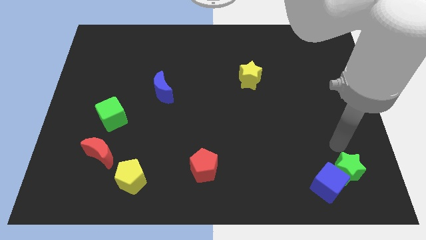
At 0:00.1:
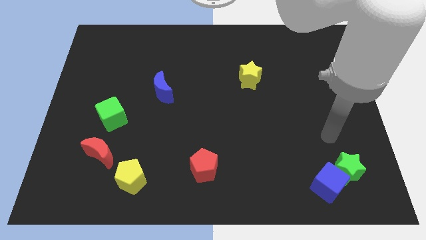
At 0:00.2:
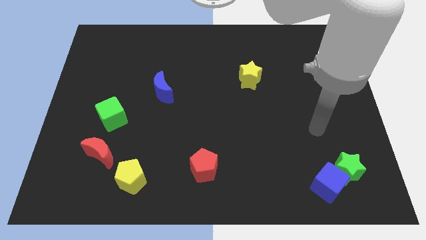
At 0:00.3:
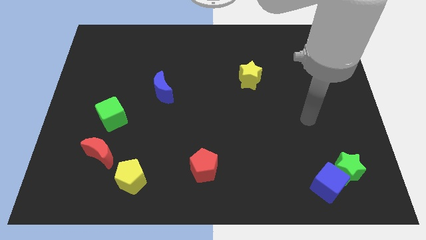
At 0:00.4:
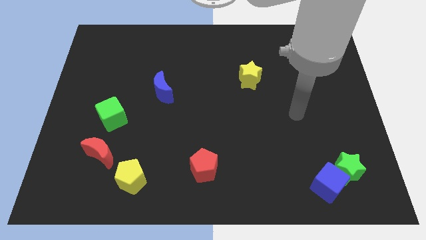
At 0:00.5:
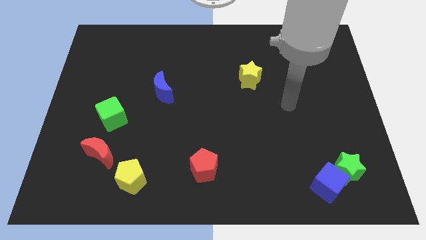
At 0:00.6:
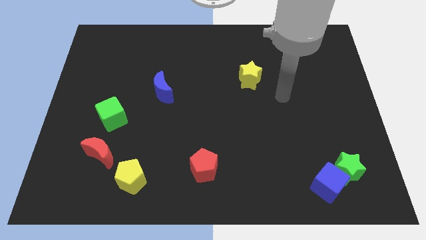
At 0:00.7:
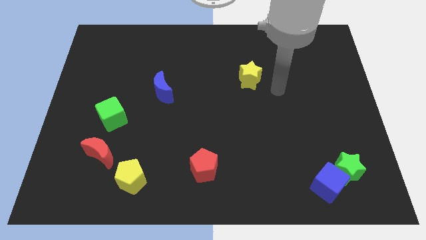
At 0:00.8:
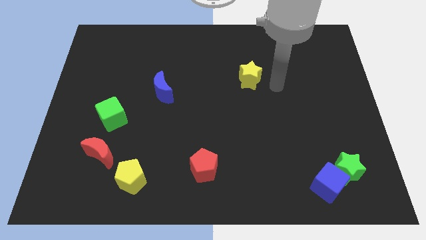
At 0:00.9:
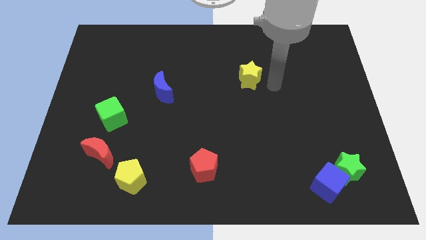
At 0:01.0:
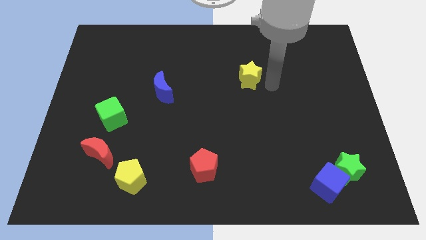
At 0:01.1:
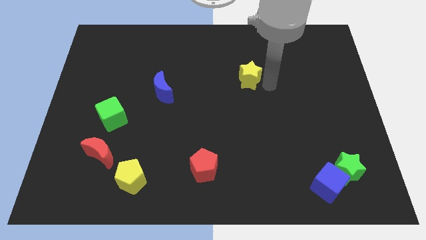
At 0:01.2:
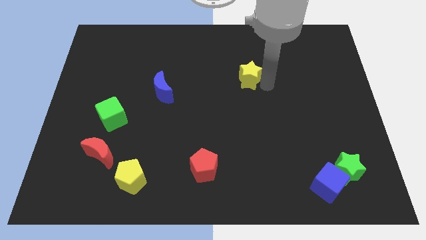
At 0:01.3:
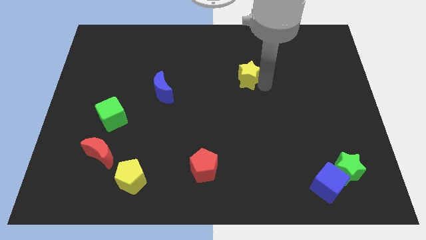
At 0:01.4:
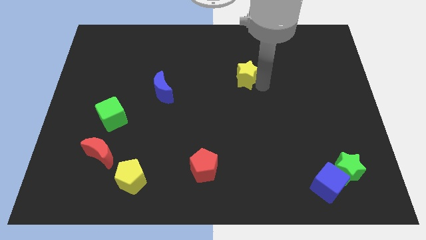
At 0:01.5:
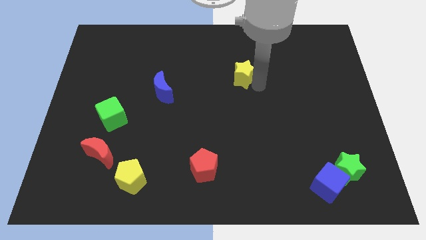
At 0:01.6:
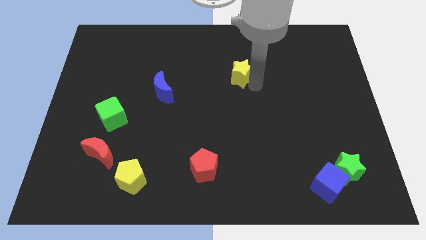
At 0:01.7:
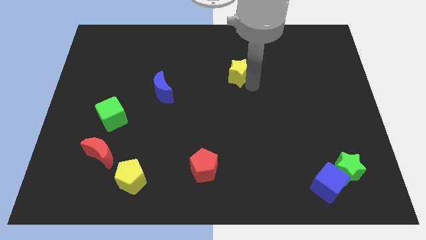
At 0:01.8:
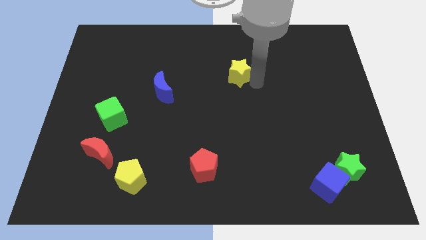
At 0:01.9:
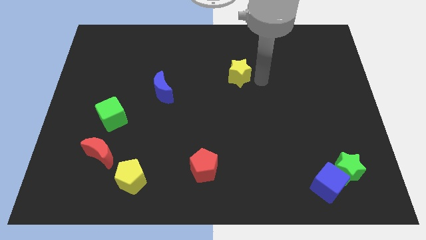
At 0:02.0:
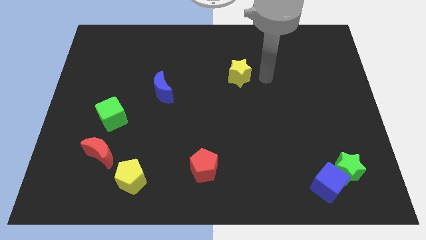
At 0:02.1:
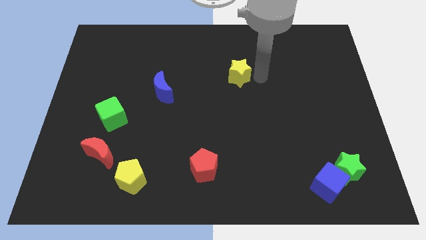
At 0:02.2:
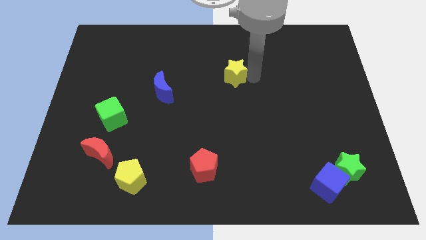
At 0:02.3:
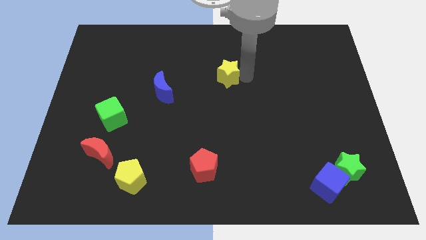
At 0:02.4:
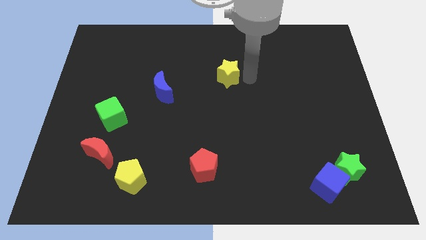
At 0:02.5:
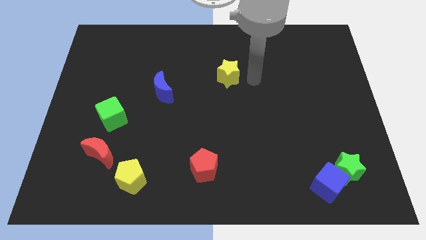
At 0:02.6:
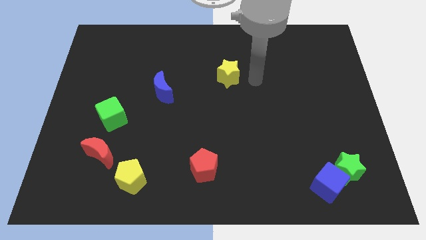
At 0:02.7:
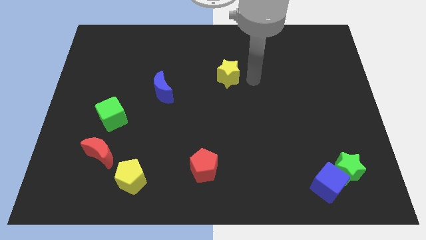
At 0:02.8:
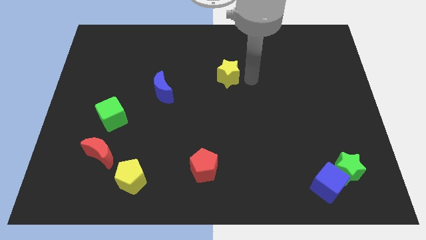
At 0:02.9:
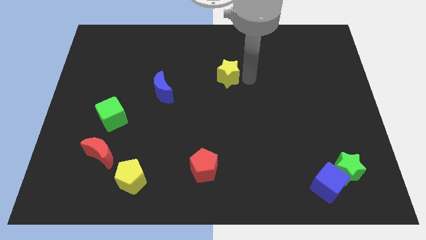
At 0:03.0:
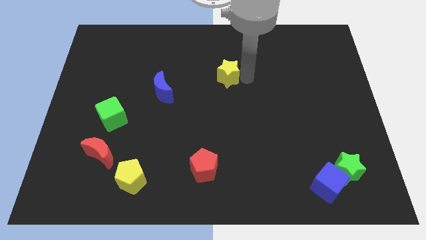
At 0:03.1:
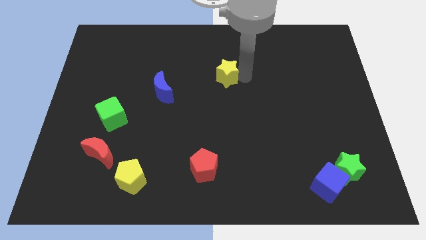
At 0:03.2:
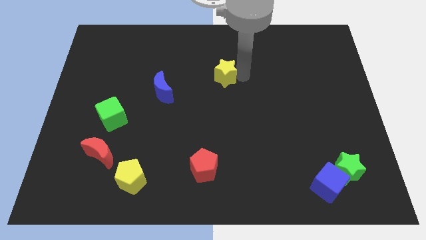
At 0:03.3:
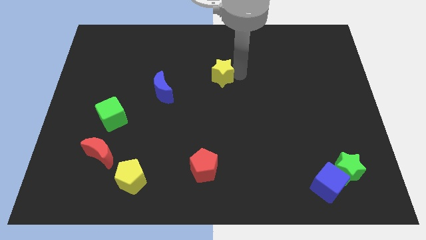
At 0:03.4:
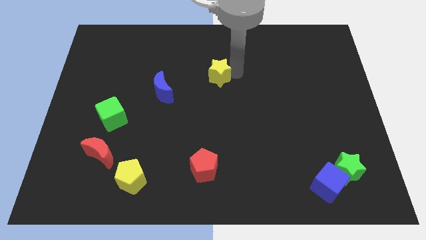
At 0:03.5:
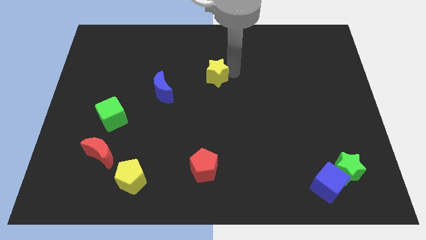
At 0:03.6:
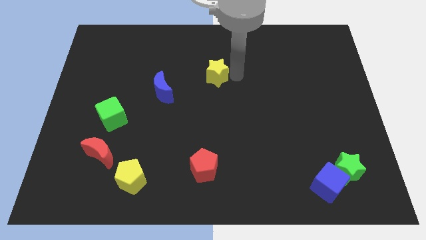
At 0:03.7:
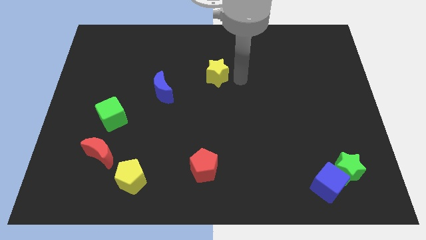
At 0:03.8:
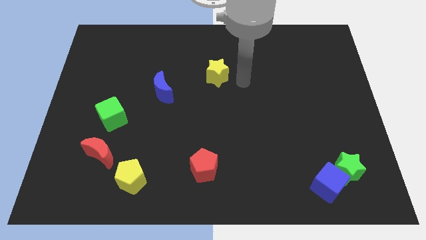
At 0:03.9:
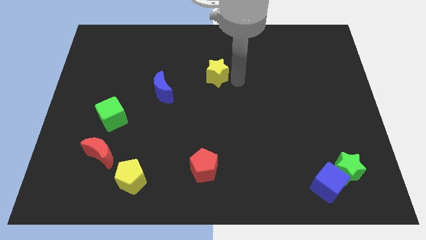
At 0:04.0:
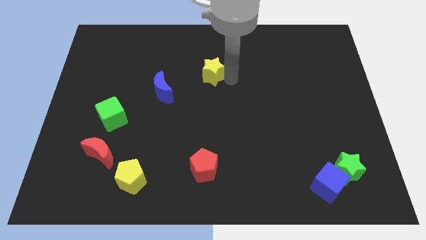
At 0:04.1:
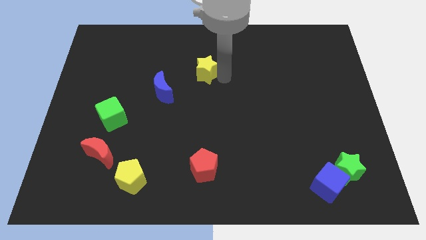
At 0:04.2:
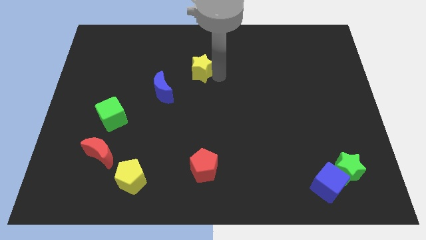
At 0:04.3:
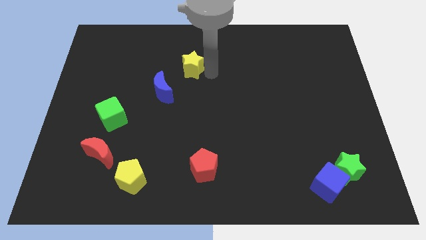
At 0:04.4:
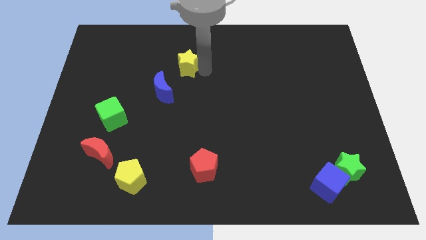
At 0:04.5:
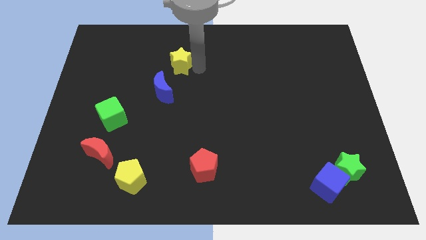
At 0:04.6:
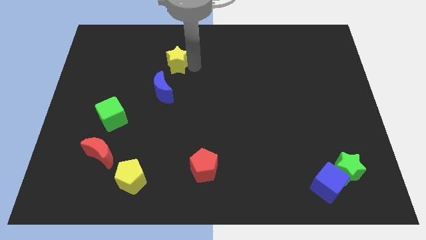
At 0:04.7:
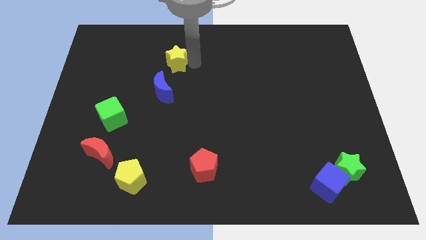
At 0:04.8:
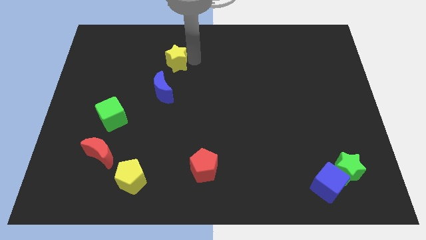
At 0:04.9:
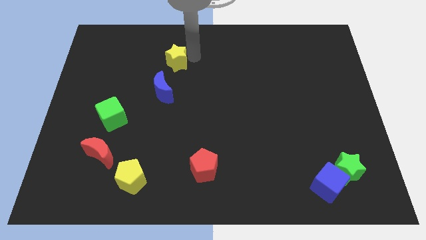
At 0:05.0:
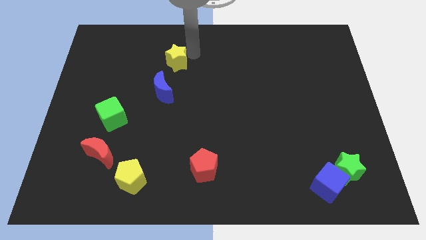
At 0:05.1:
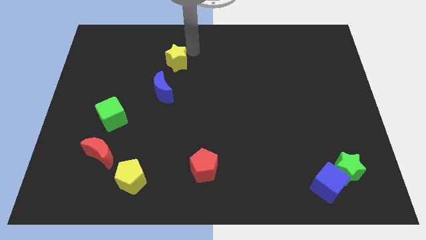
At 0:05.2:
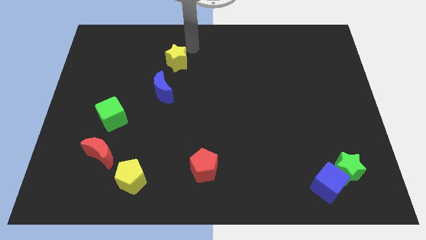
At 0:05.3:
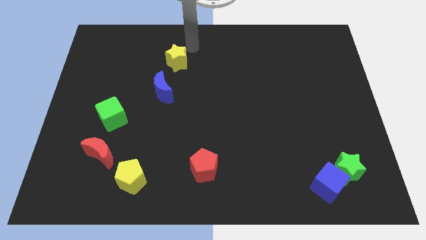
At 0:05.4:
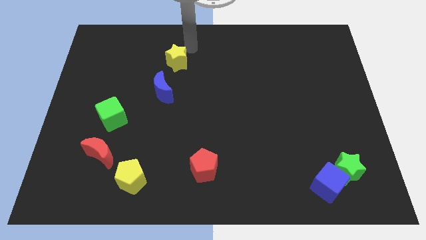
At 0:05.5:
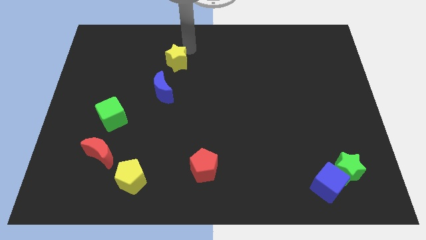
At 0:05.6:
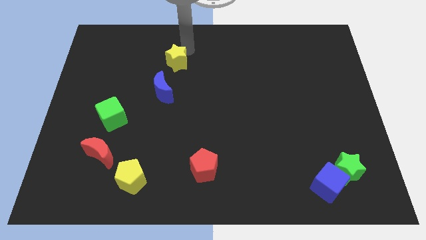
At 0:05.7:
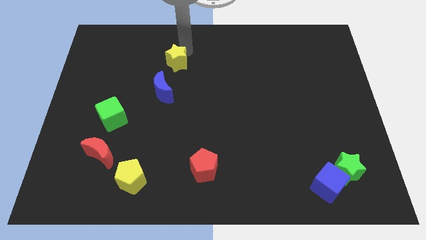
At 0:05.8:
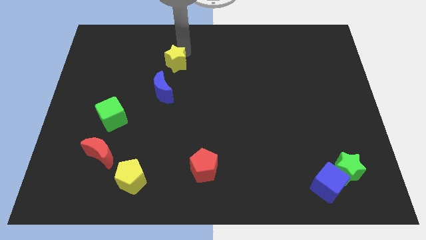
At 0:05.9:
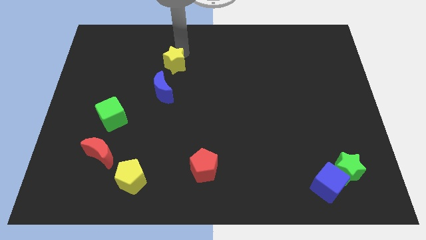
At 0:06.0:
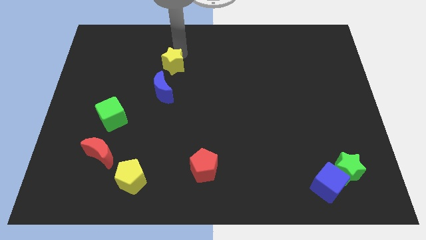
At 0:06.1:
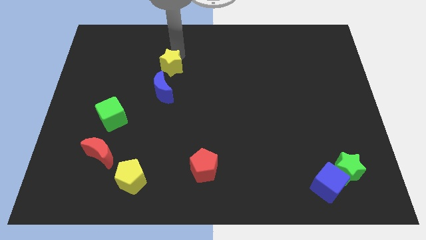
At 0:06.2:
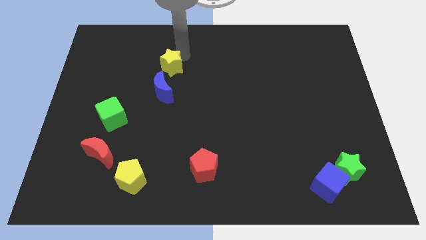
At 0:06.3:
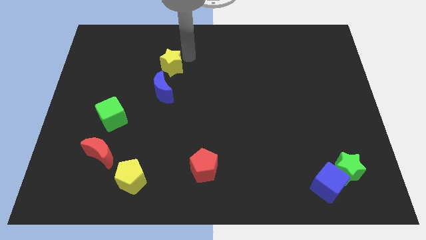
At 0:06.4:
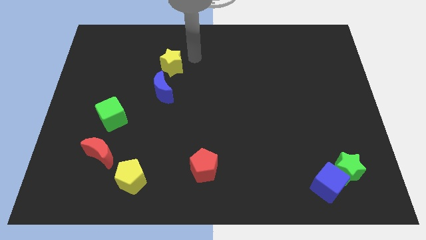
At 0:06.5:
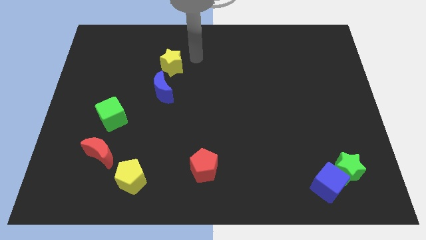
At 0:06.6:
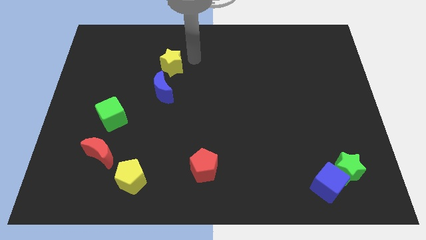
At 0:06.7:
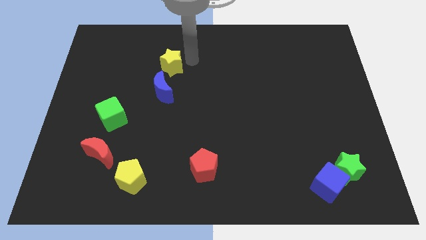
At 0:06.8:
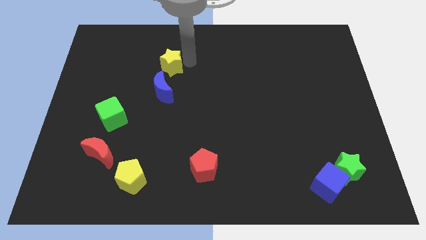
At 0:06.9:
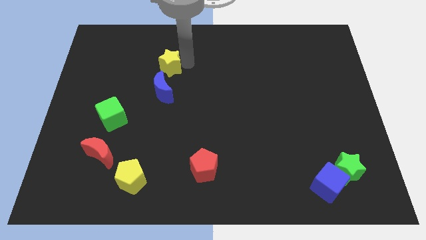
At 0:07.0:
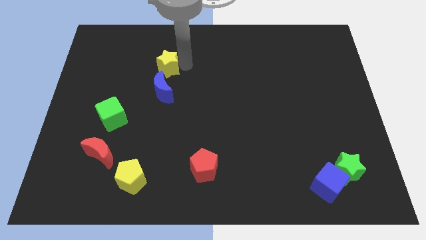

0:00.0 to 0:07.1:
push the yellow star to the left

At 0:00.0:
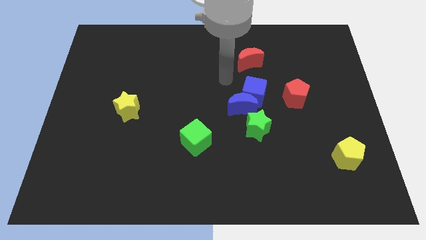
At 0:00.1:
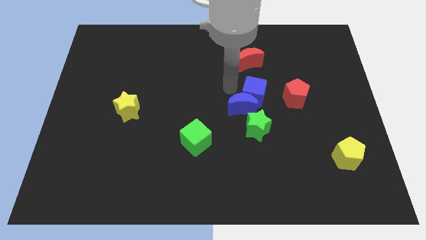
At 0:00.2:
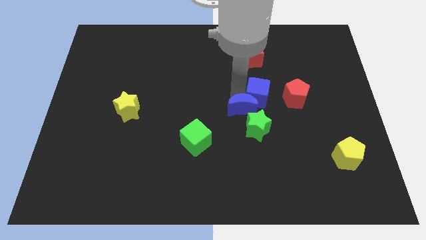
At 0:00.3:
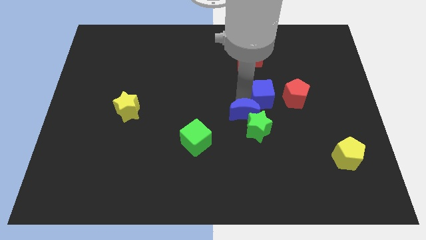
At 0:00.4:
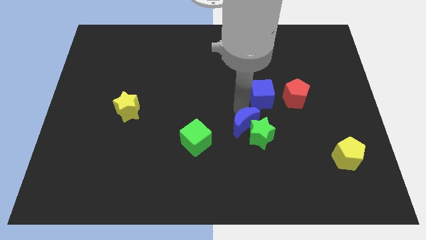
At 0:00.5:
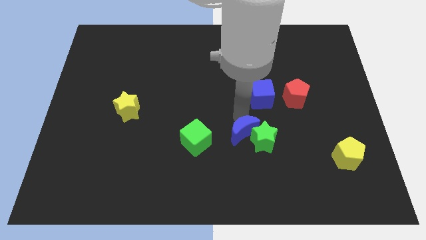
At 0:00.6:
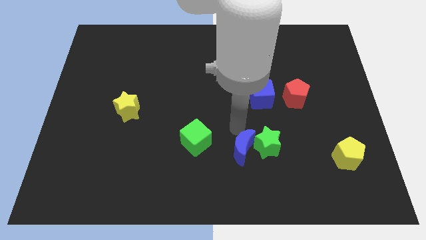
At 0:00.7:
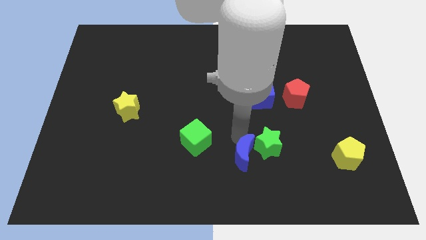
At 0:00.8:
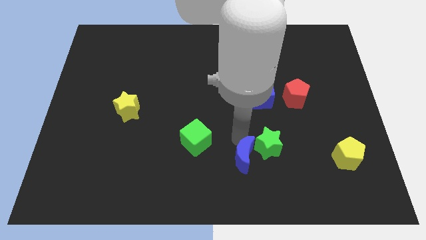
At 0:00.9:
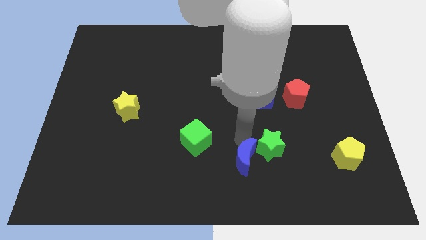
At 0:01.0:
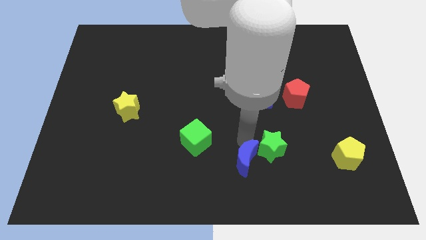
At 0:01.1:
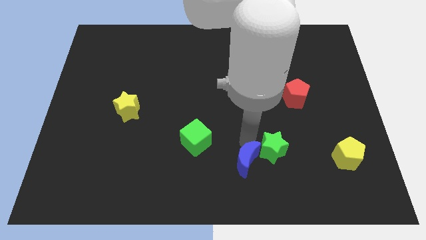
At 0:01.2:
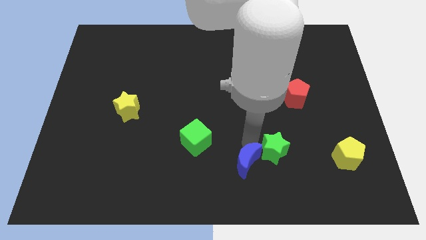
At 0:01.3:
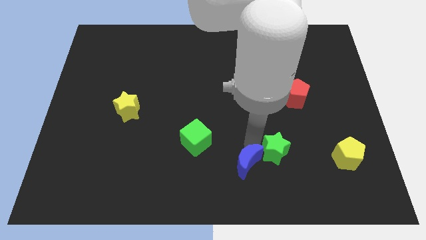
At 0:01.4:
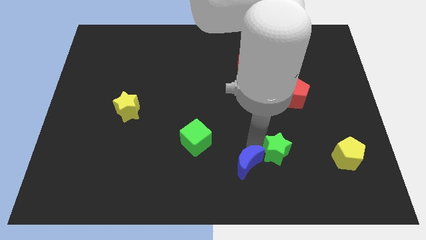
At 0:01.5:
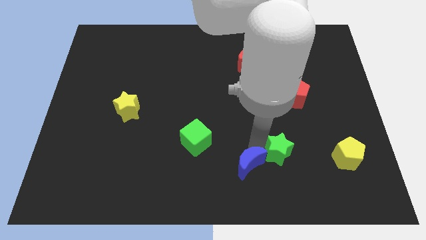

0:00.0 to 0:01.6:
push the green star diagonally downwards and to the right a little bit
